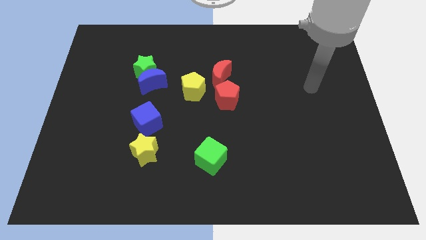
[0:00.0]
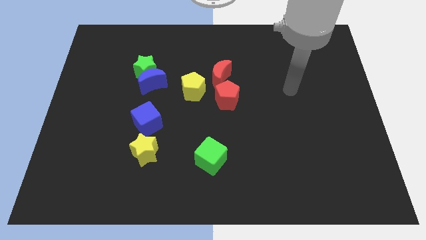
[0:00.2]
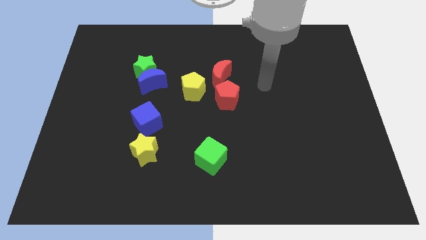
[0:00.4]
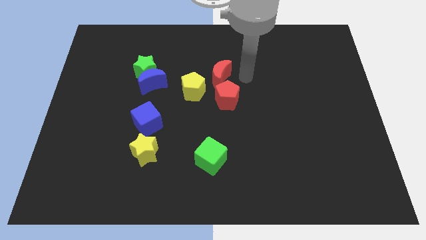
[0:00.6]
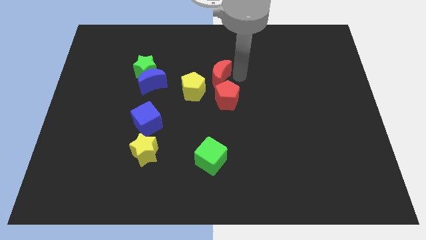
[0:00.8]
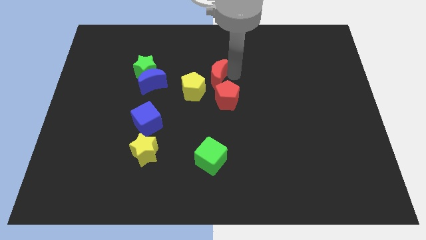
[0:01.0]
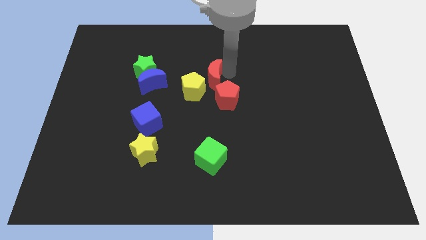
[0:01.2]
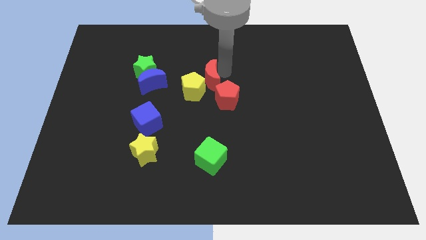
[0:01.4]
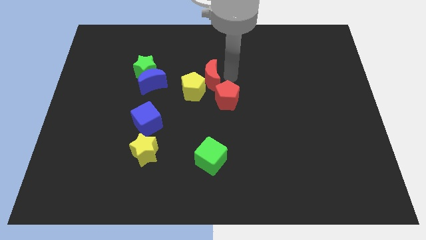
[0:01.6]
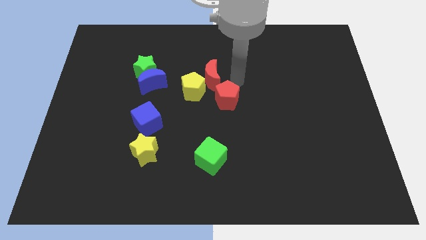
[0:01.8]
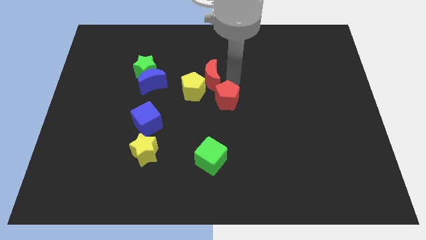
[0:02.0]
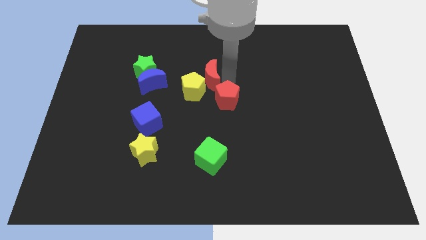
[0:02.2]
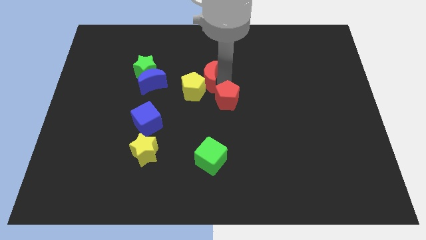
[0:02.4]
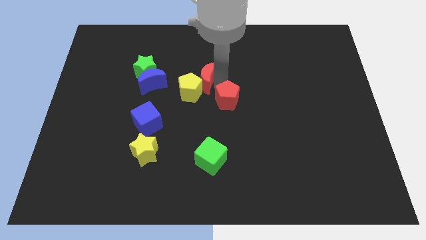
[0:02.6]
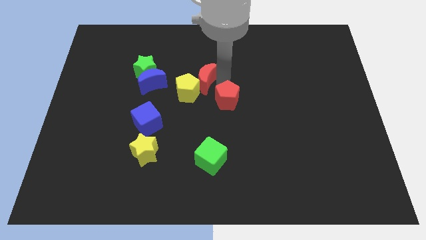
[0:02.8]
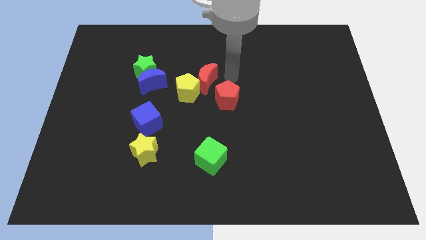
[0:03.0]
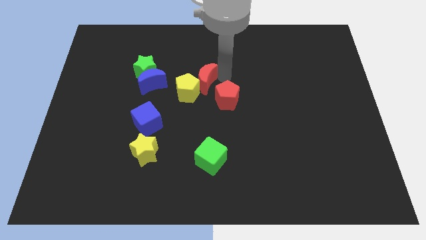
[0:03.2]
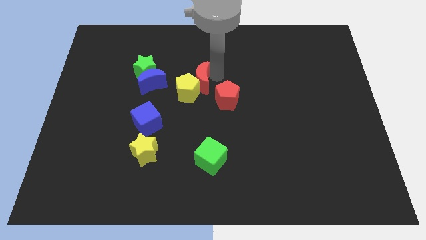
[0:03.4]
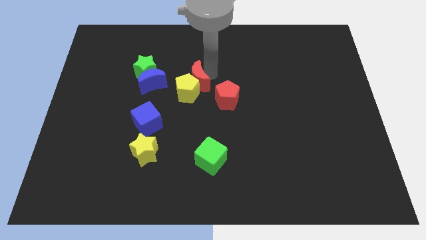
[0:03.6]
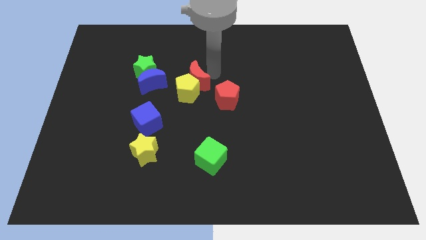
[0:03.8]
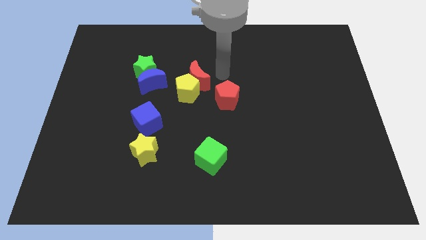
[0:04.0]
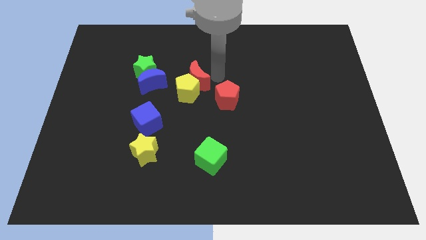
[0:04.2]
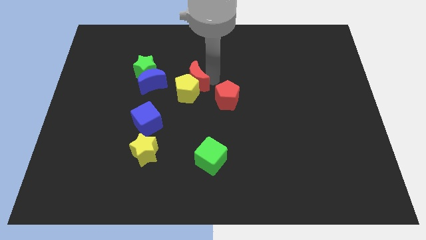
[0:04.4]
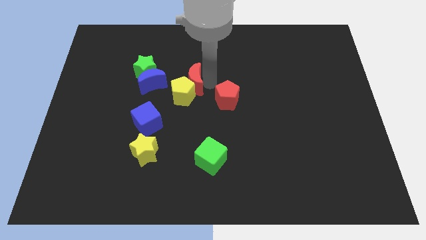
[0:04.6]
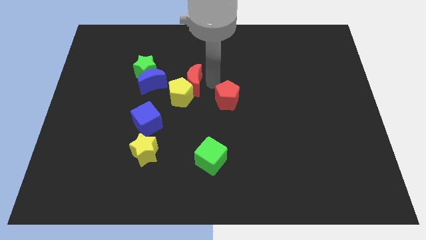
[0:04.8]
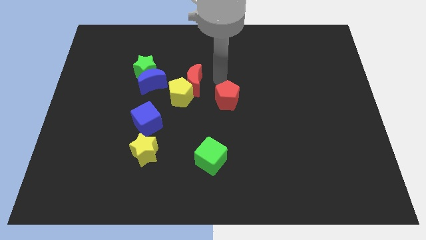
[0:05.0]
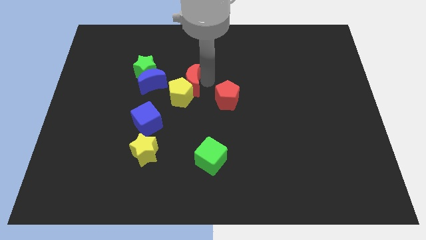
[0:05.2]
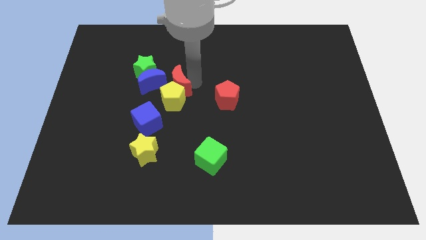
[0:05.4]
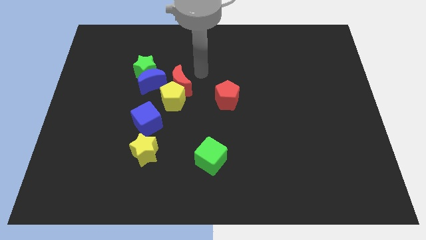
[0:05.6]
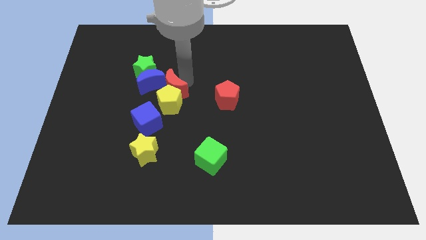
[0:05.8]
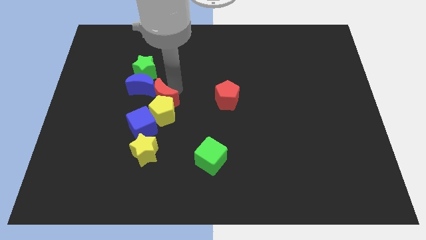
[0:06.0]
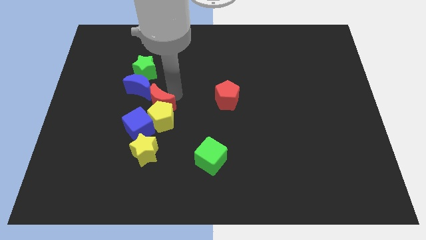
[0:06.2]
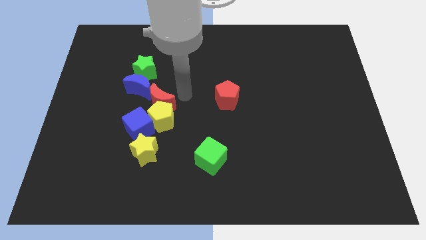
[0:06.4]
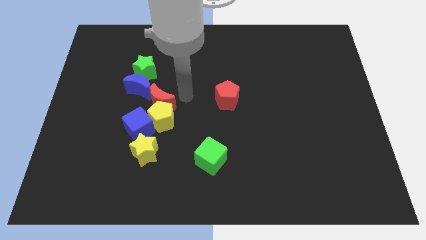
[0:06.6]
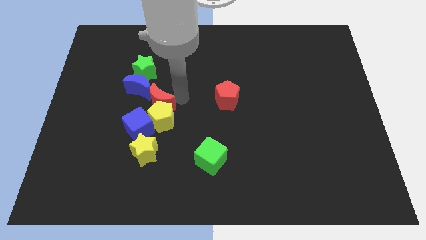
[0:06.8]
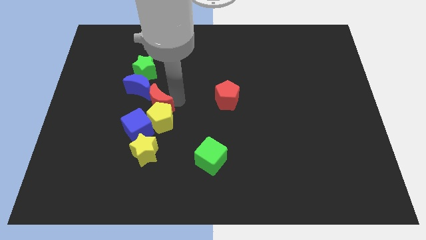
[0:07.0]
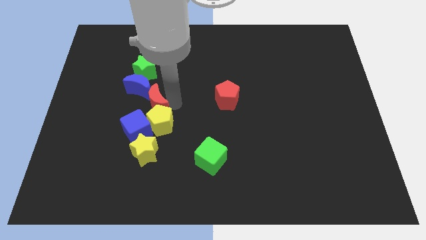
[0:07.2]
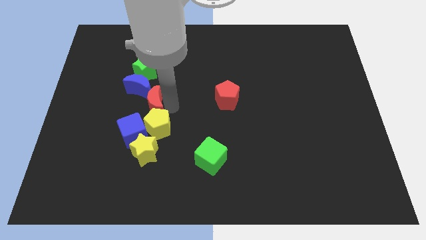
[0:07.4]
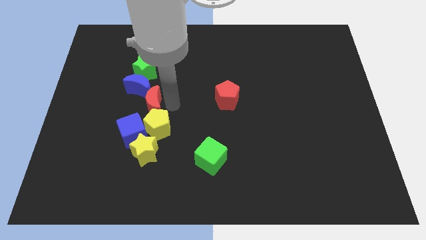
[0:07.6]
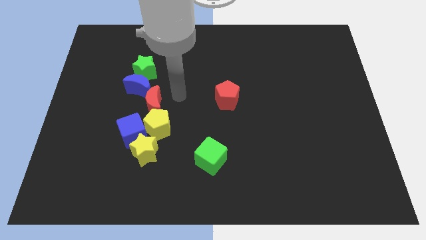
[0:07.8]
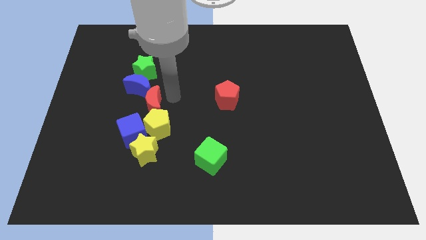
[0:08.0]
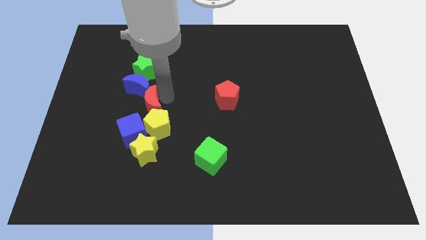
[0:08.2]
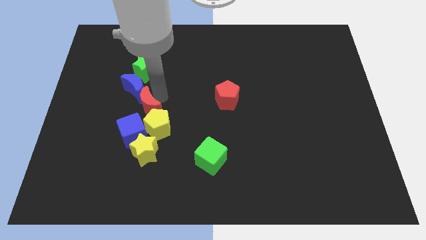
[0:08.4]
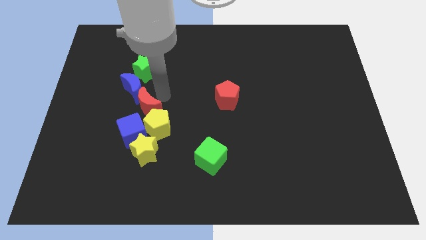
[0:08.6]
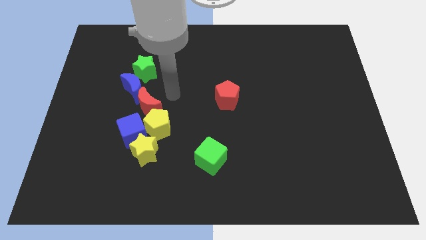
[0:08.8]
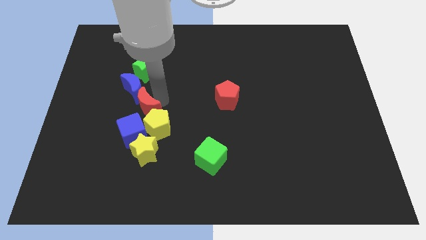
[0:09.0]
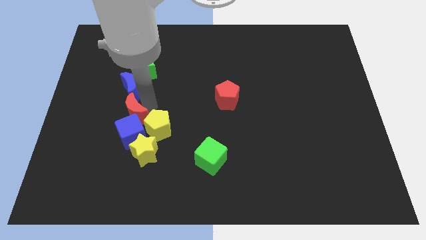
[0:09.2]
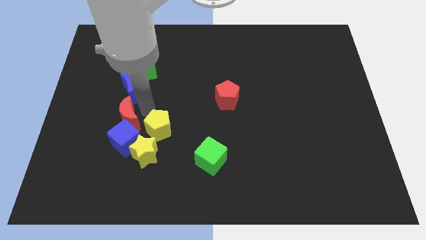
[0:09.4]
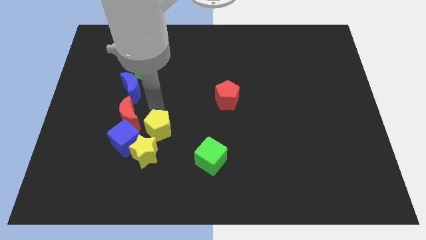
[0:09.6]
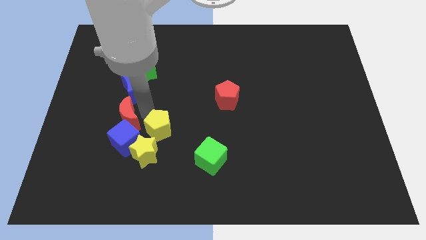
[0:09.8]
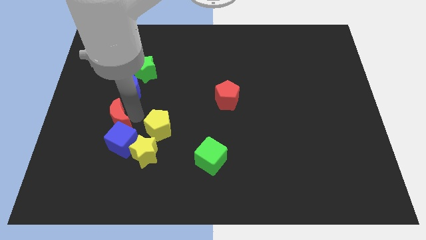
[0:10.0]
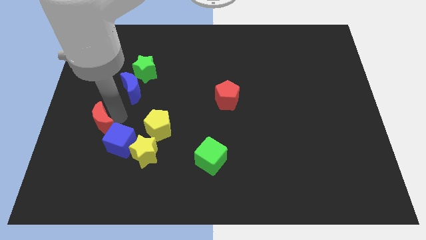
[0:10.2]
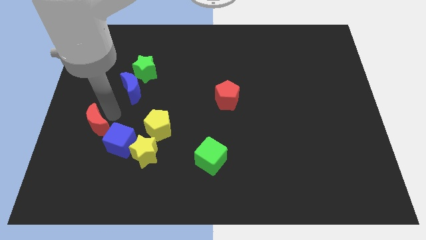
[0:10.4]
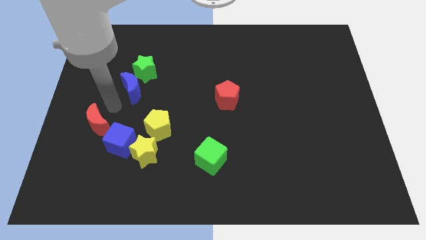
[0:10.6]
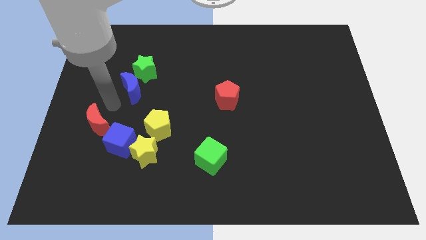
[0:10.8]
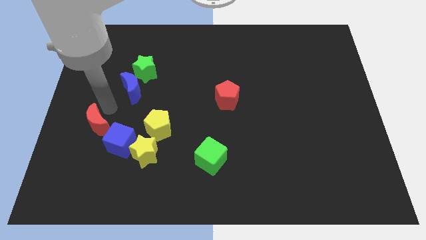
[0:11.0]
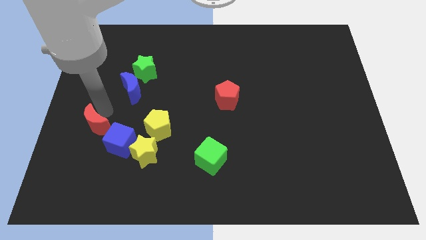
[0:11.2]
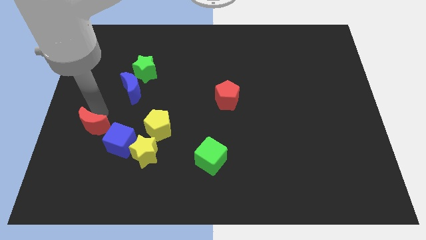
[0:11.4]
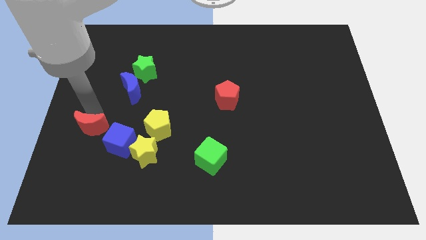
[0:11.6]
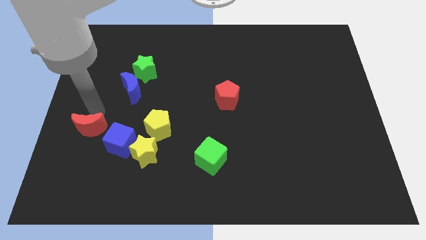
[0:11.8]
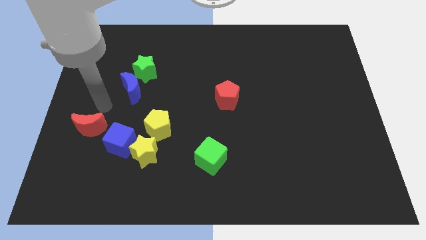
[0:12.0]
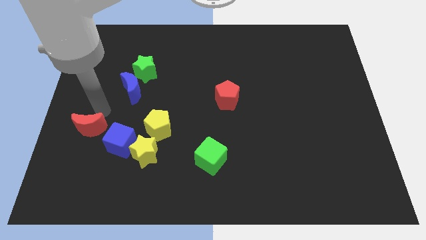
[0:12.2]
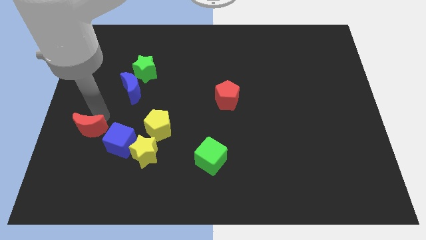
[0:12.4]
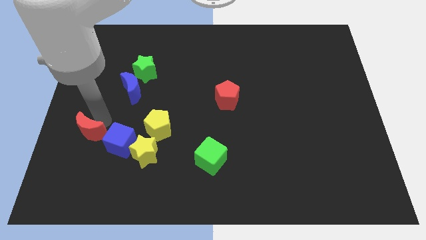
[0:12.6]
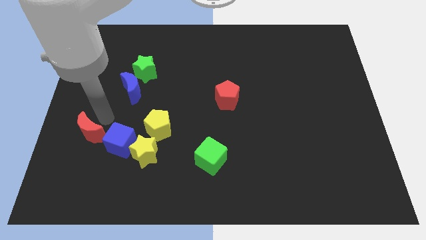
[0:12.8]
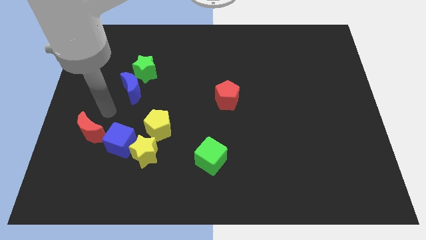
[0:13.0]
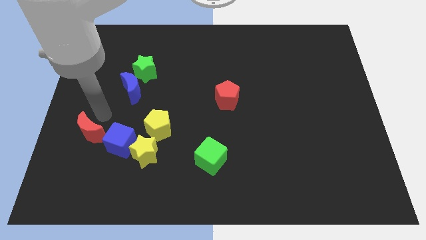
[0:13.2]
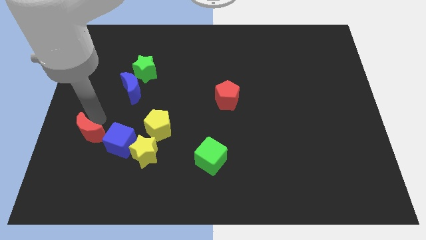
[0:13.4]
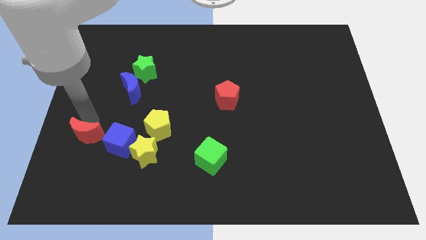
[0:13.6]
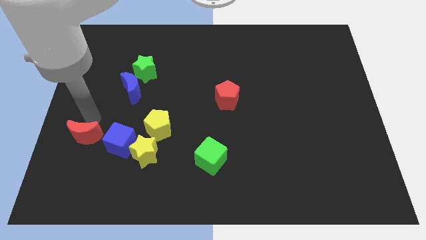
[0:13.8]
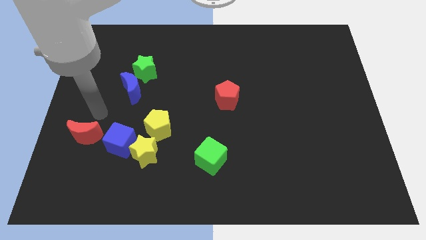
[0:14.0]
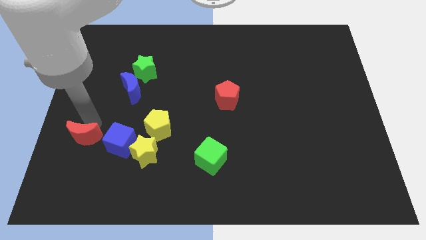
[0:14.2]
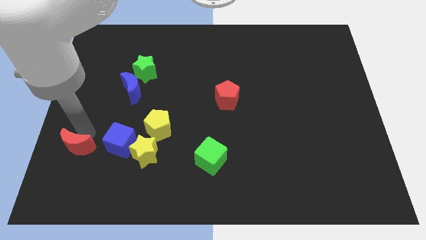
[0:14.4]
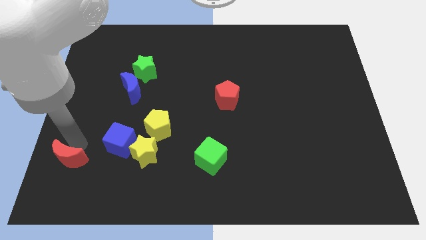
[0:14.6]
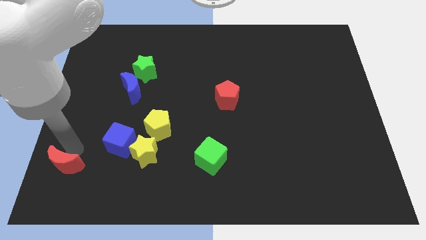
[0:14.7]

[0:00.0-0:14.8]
put the red moon to the bottom left
